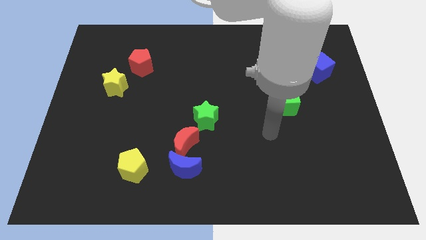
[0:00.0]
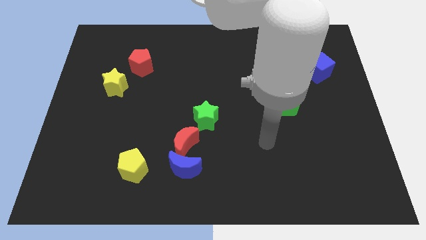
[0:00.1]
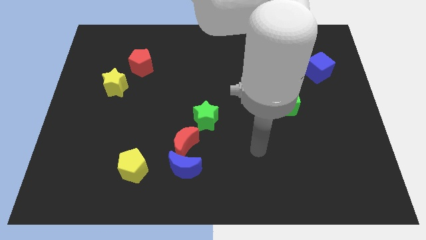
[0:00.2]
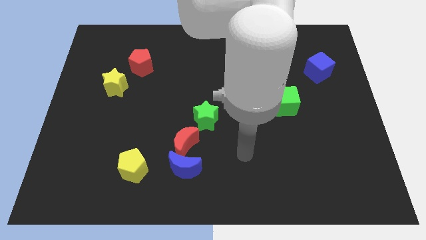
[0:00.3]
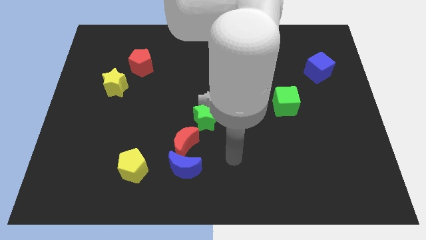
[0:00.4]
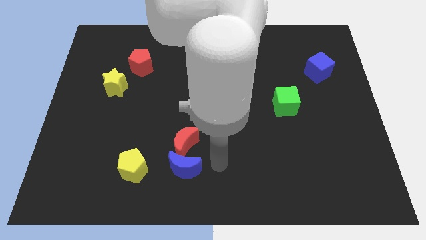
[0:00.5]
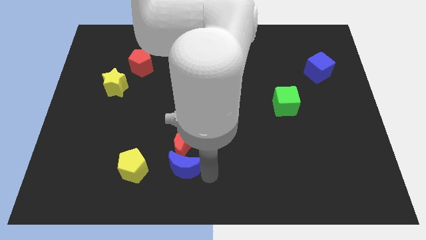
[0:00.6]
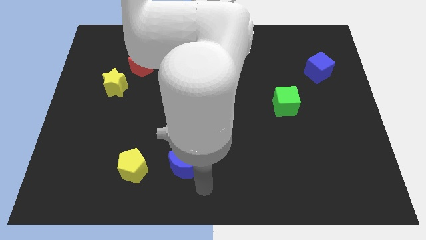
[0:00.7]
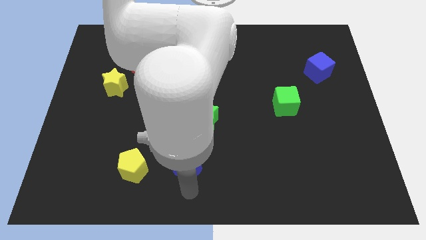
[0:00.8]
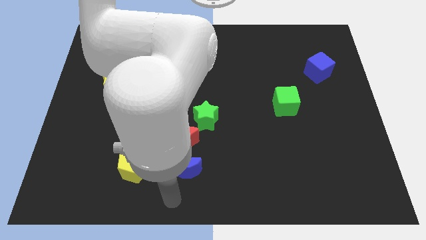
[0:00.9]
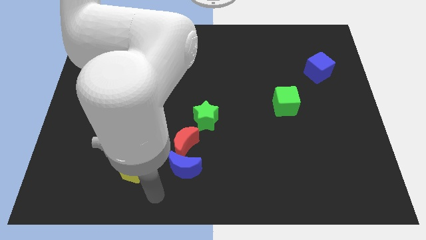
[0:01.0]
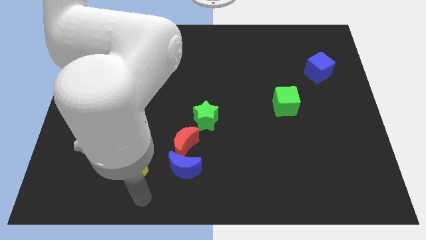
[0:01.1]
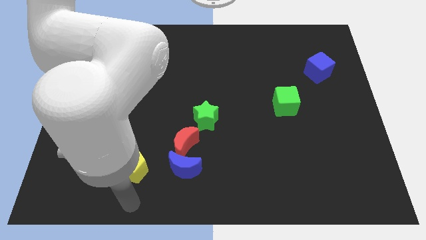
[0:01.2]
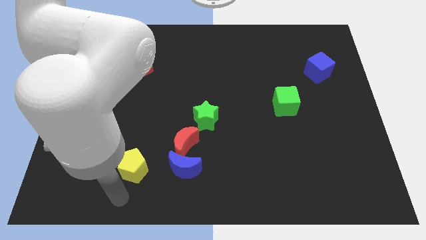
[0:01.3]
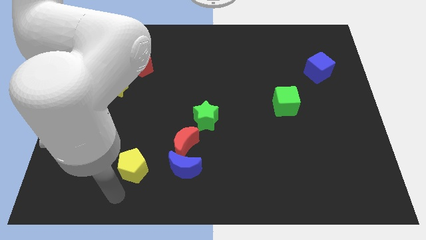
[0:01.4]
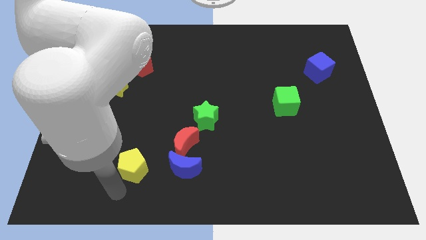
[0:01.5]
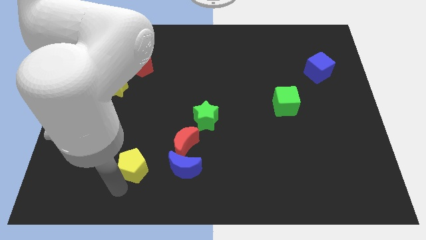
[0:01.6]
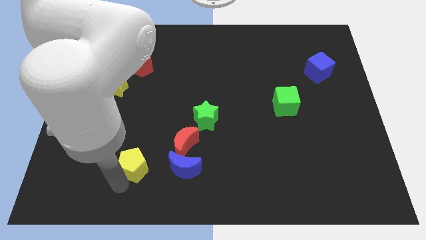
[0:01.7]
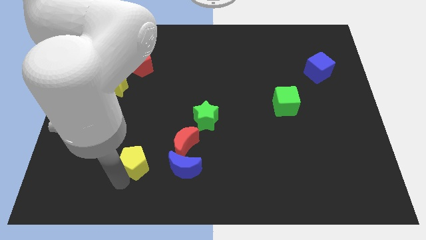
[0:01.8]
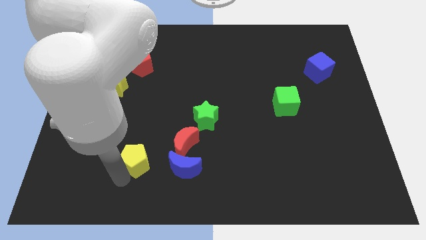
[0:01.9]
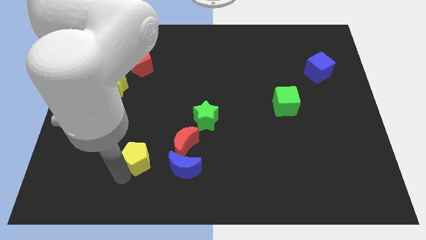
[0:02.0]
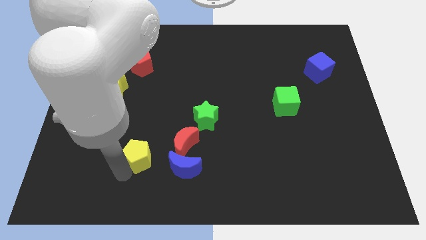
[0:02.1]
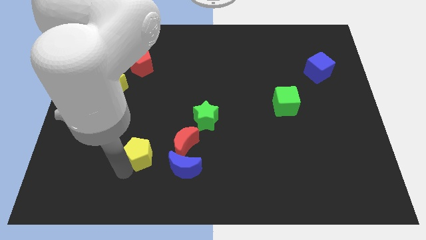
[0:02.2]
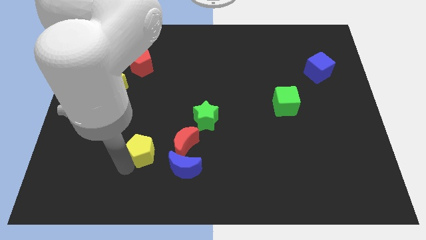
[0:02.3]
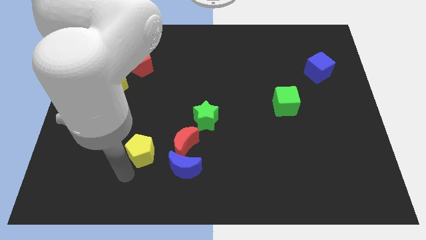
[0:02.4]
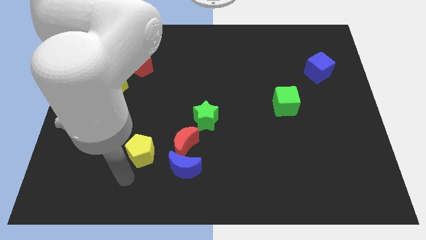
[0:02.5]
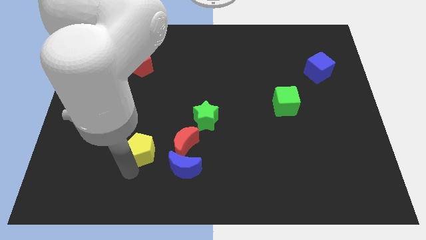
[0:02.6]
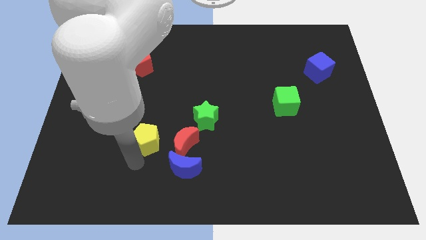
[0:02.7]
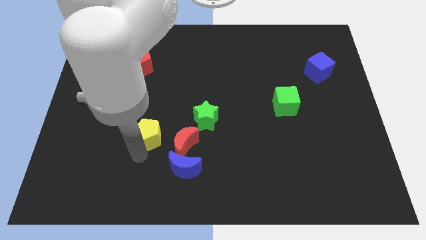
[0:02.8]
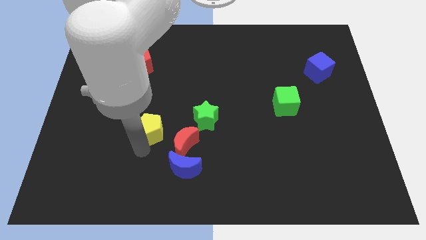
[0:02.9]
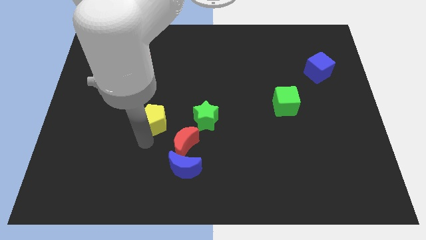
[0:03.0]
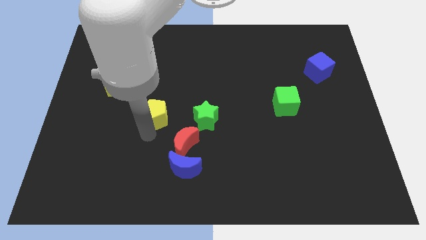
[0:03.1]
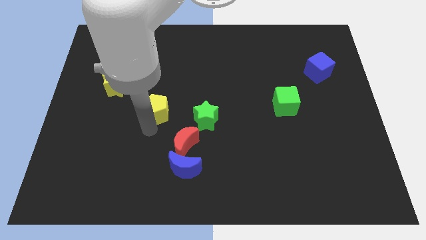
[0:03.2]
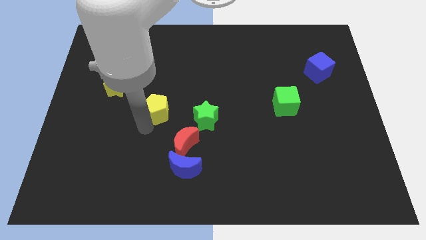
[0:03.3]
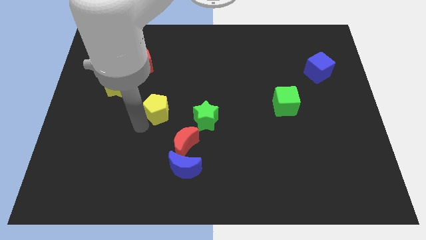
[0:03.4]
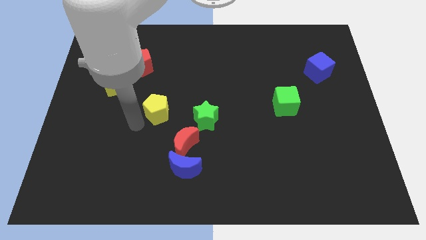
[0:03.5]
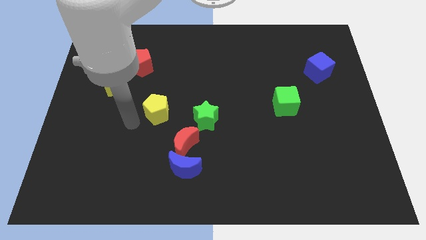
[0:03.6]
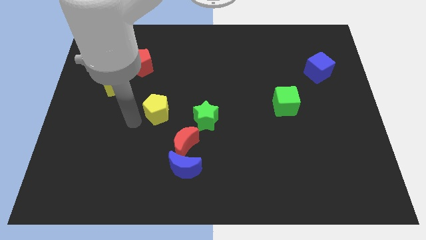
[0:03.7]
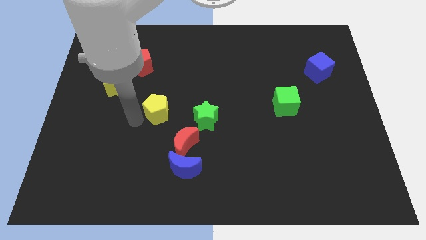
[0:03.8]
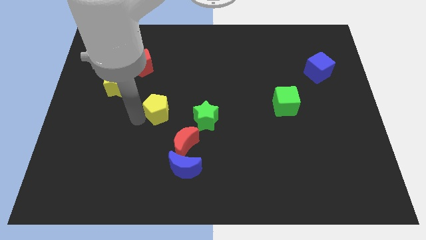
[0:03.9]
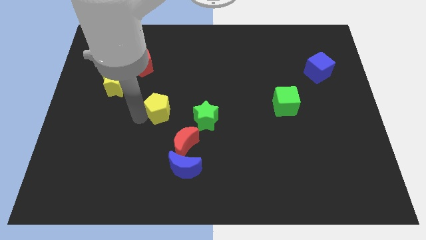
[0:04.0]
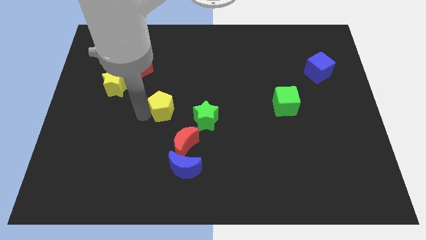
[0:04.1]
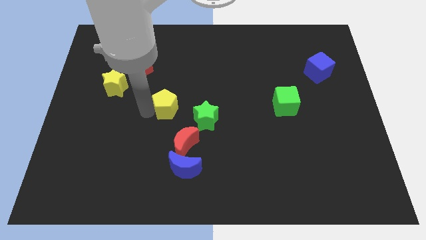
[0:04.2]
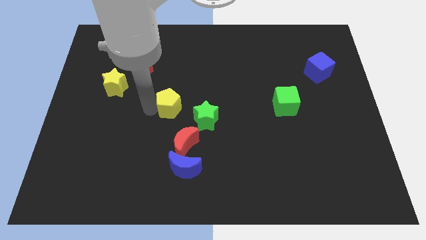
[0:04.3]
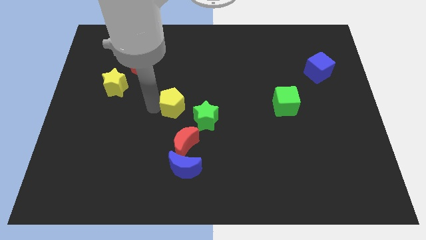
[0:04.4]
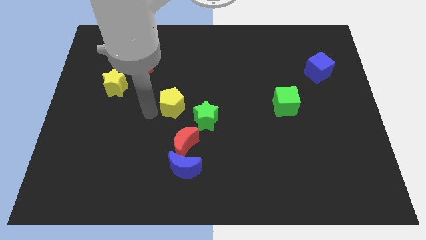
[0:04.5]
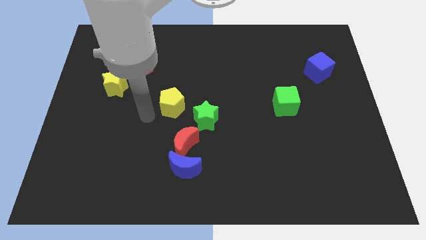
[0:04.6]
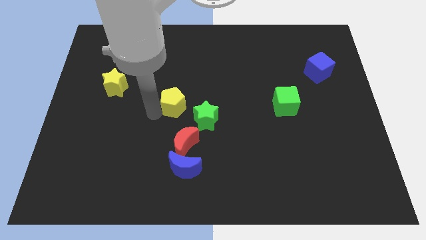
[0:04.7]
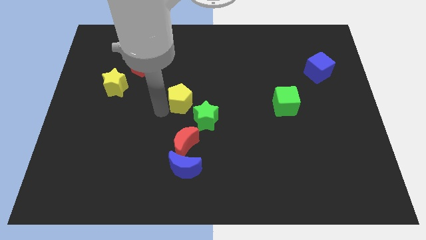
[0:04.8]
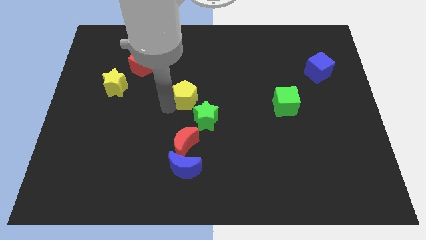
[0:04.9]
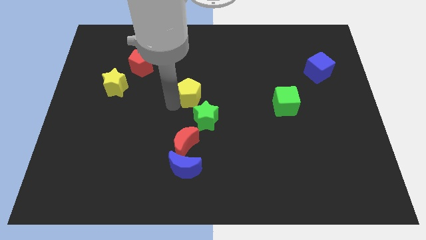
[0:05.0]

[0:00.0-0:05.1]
move the yellow pentagon upwards and right

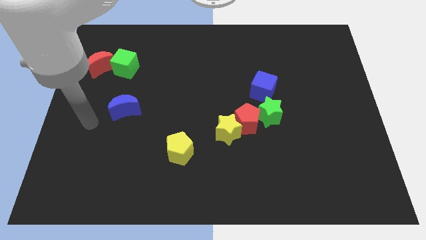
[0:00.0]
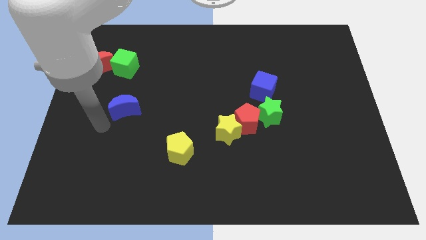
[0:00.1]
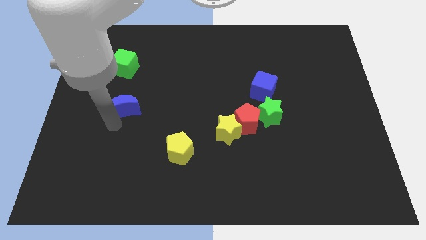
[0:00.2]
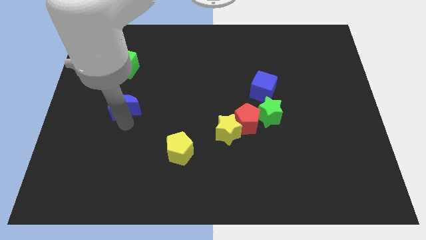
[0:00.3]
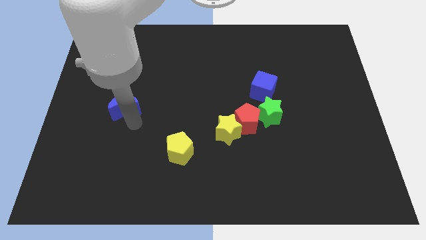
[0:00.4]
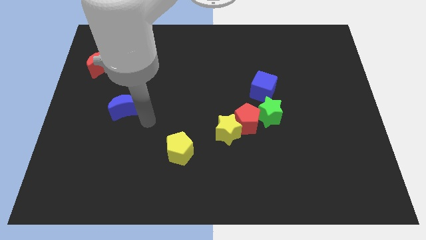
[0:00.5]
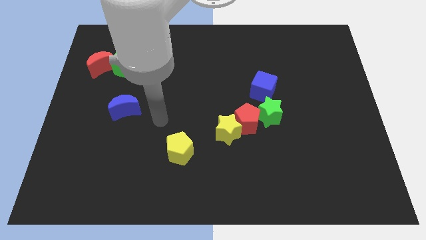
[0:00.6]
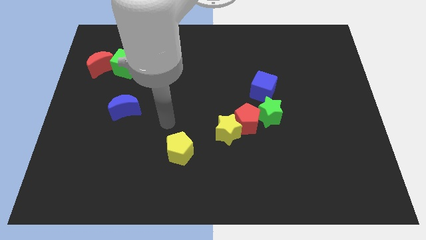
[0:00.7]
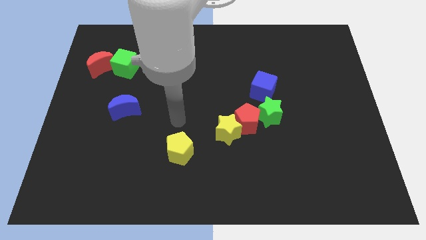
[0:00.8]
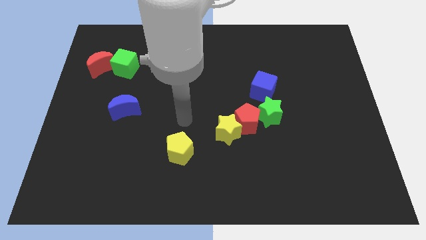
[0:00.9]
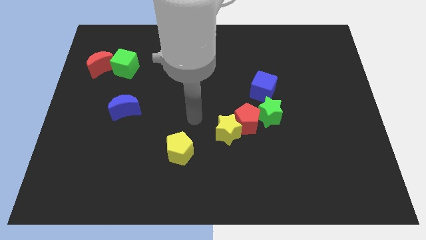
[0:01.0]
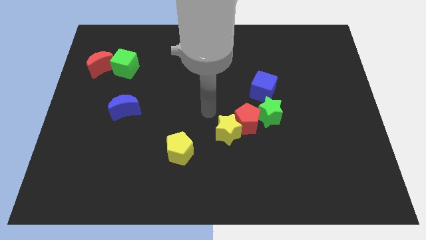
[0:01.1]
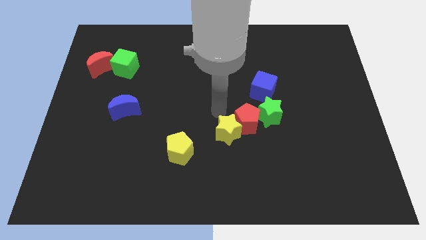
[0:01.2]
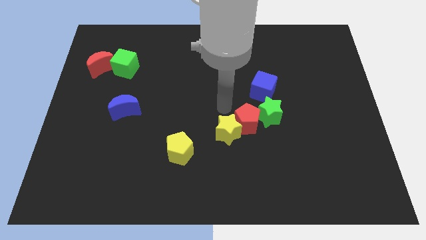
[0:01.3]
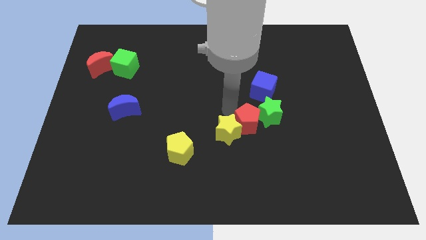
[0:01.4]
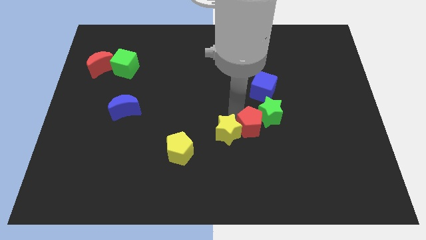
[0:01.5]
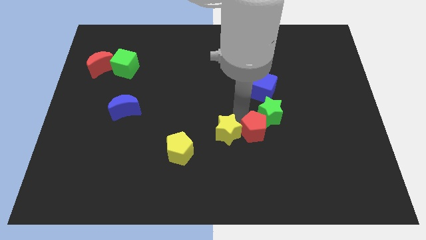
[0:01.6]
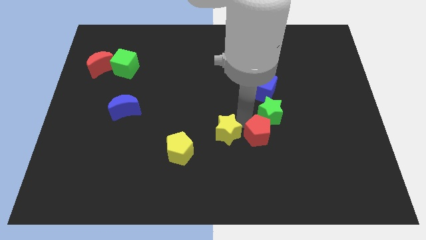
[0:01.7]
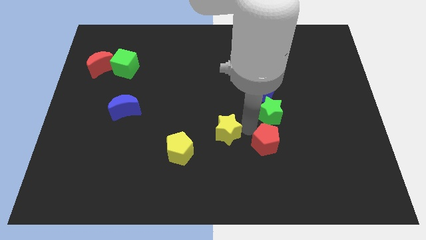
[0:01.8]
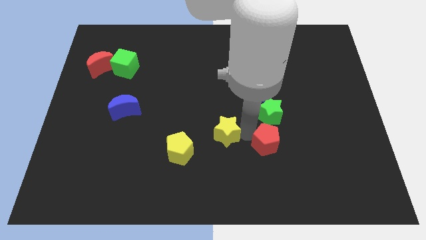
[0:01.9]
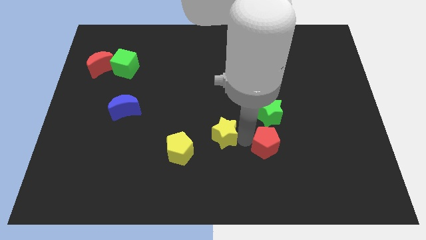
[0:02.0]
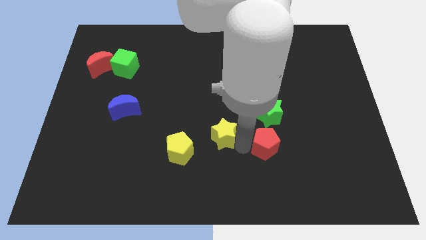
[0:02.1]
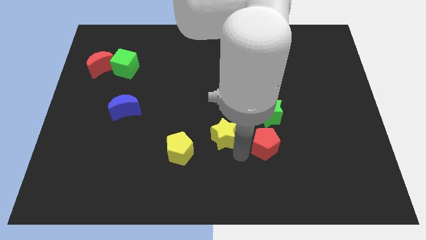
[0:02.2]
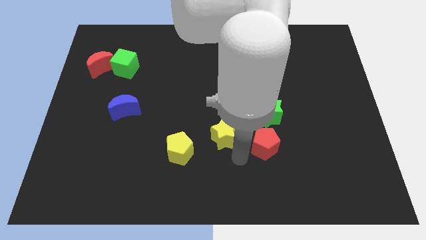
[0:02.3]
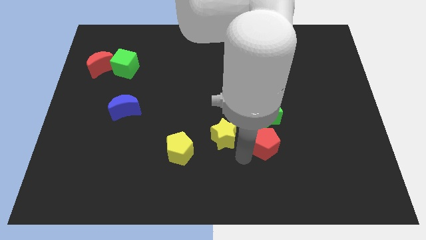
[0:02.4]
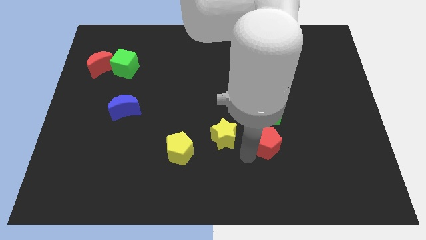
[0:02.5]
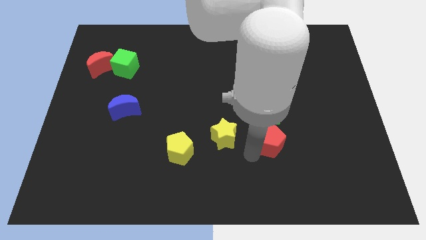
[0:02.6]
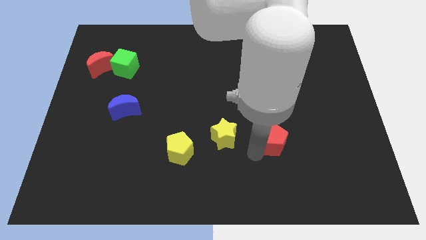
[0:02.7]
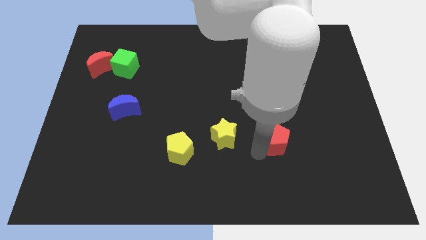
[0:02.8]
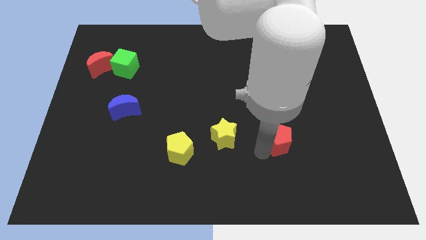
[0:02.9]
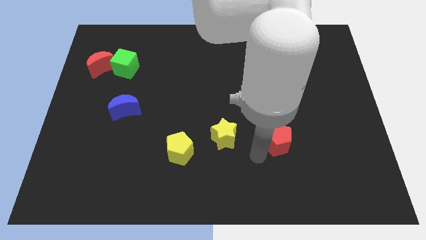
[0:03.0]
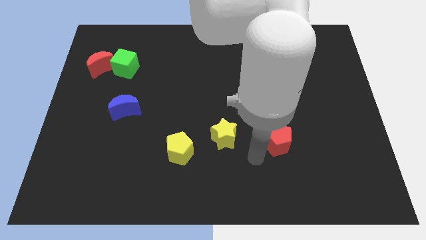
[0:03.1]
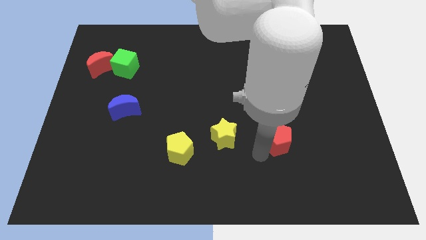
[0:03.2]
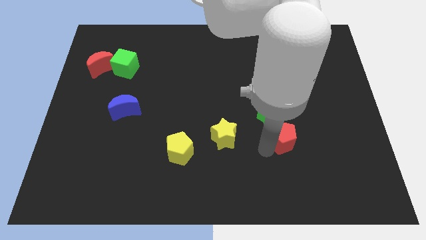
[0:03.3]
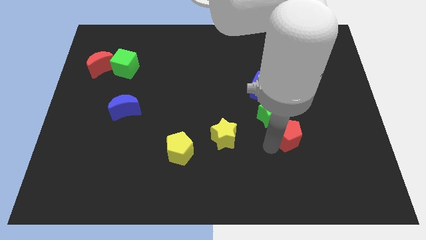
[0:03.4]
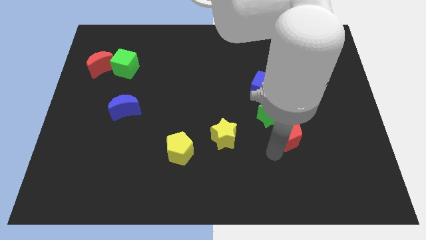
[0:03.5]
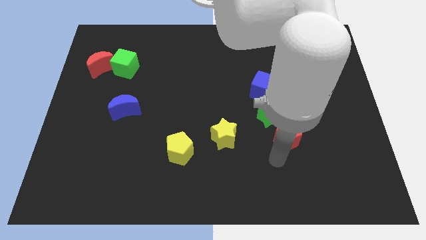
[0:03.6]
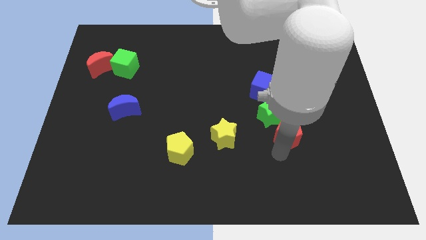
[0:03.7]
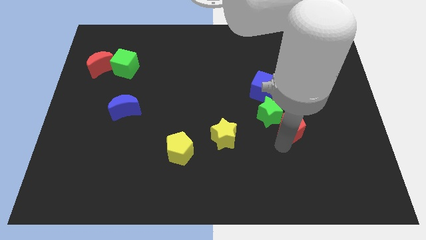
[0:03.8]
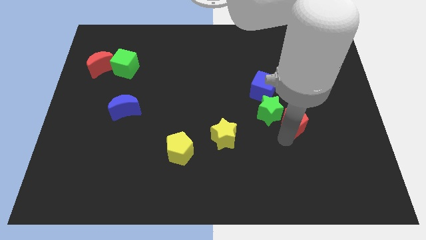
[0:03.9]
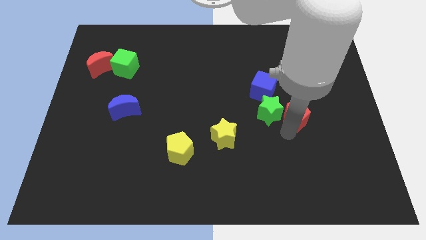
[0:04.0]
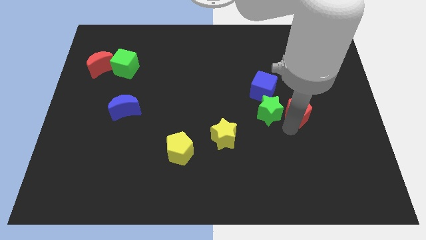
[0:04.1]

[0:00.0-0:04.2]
slightly move the red pentagon diagonally up and to the right
